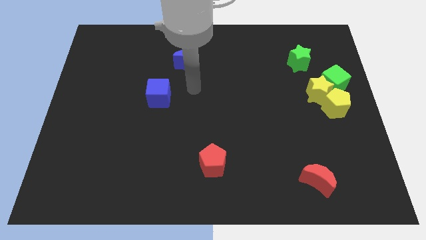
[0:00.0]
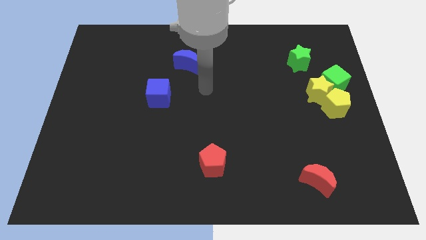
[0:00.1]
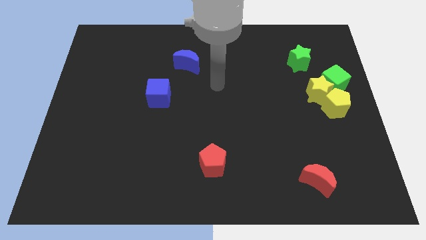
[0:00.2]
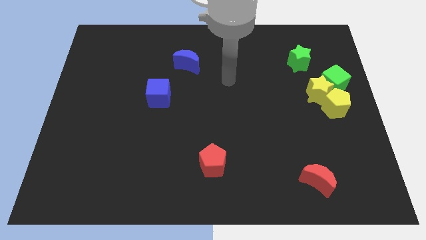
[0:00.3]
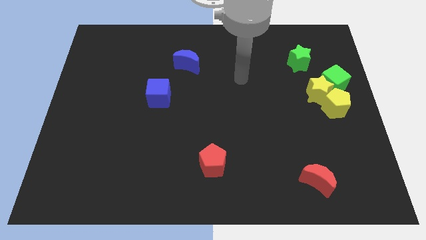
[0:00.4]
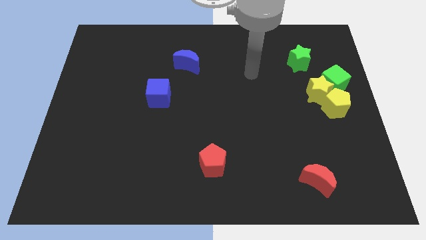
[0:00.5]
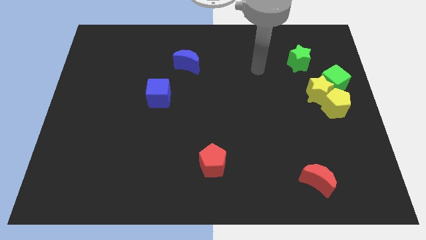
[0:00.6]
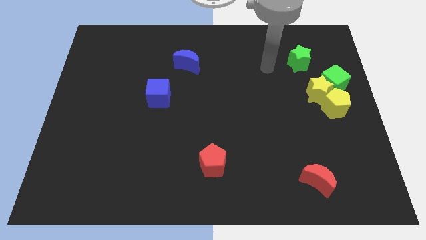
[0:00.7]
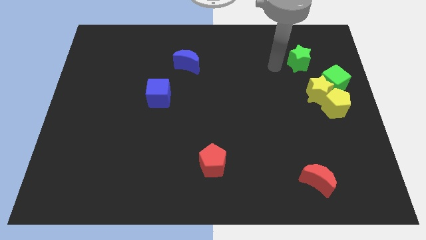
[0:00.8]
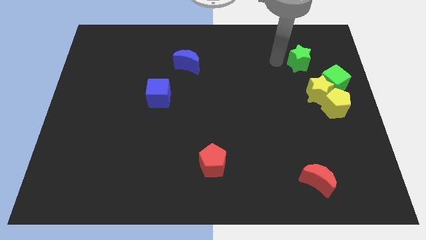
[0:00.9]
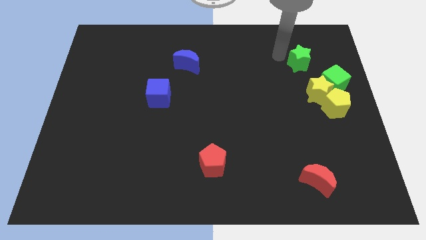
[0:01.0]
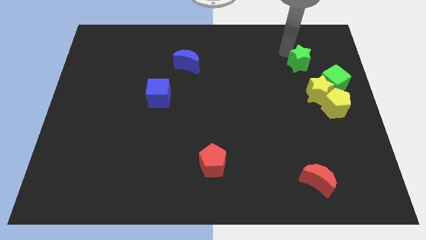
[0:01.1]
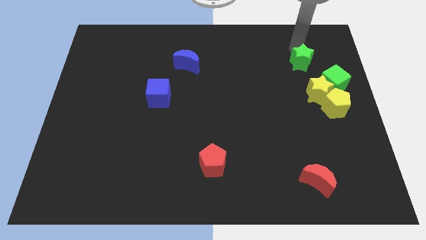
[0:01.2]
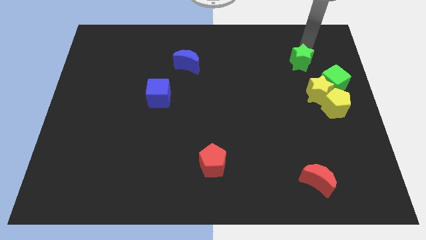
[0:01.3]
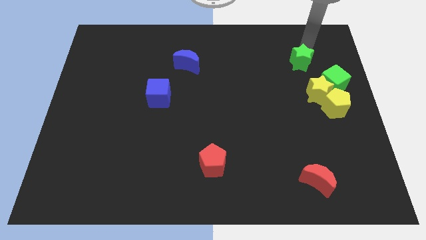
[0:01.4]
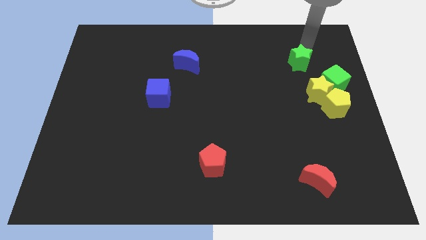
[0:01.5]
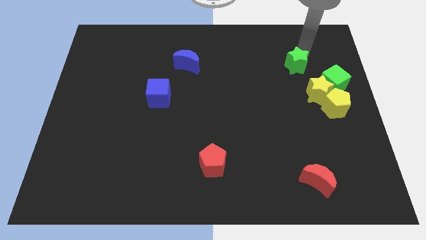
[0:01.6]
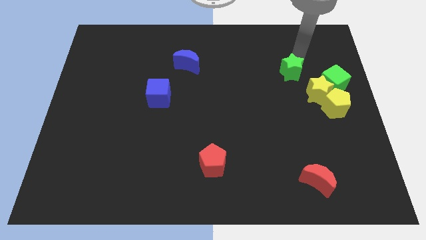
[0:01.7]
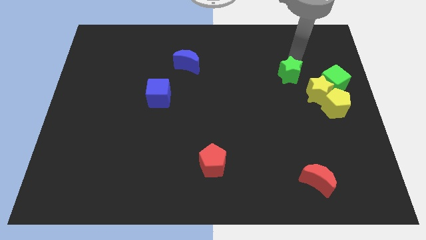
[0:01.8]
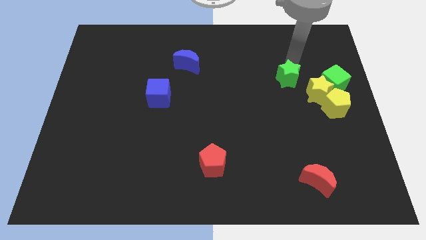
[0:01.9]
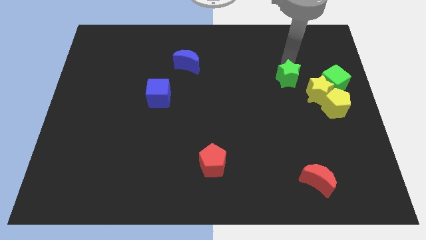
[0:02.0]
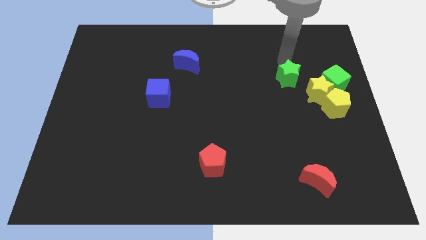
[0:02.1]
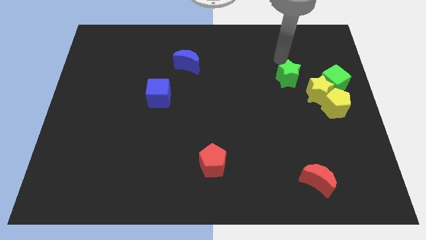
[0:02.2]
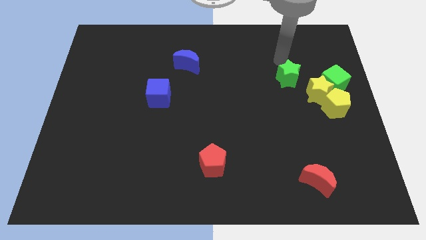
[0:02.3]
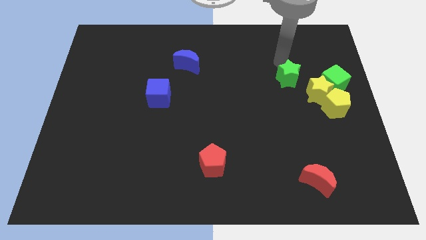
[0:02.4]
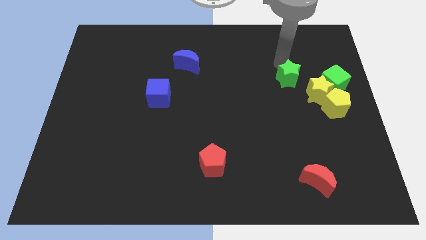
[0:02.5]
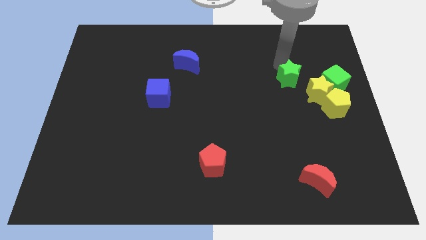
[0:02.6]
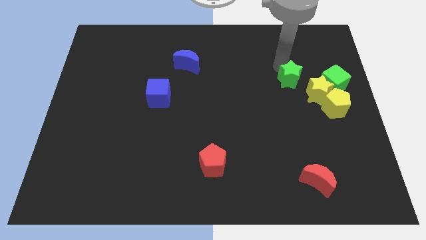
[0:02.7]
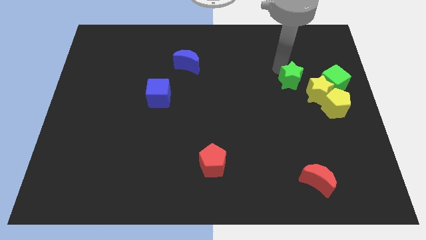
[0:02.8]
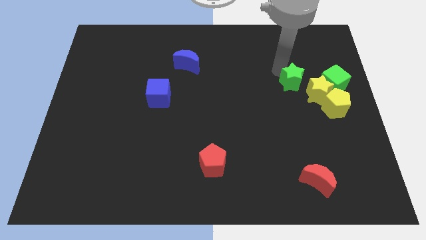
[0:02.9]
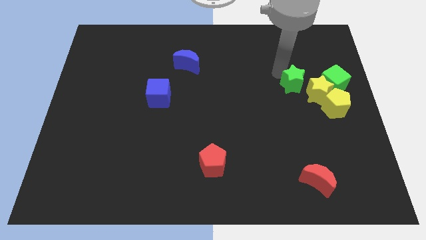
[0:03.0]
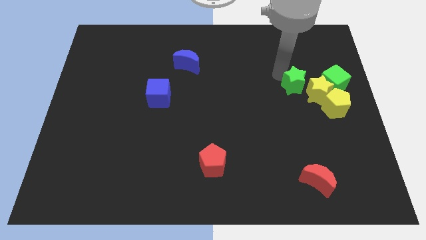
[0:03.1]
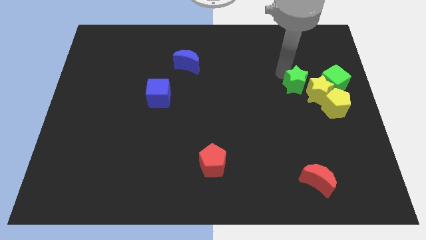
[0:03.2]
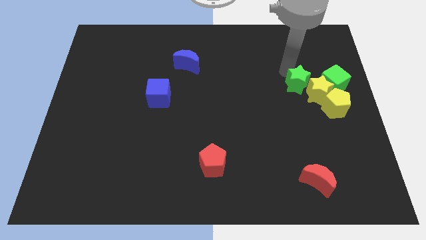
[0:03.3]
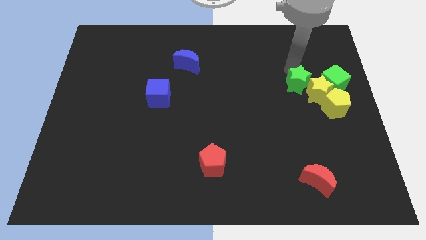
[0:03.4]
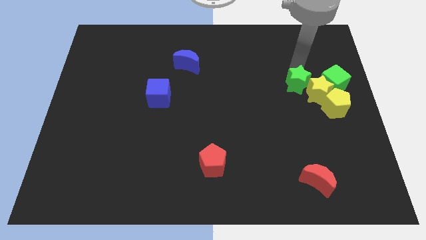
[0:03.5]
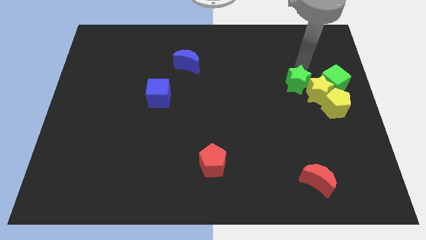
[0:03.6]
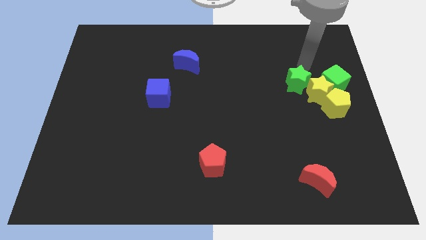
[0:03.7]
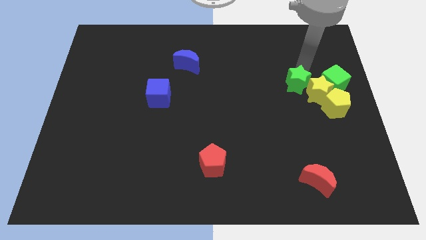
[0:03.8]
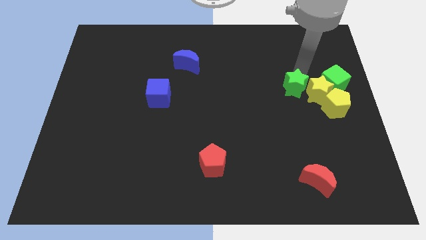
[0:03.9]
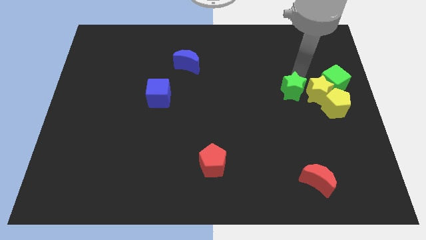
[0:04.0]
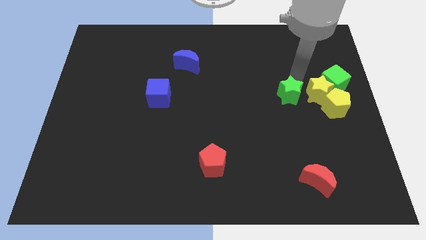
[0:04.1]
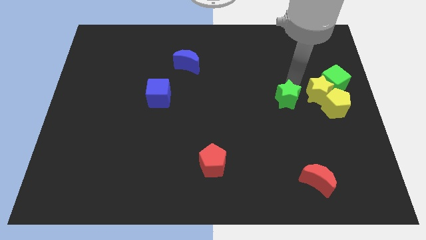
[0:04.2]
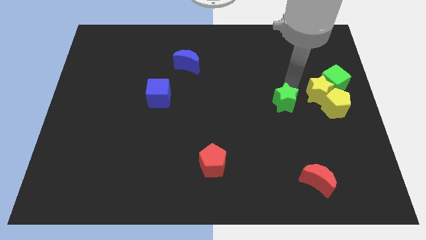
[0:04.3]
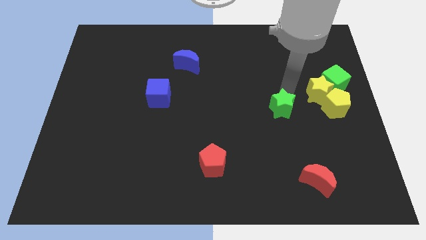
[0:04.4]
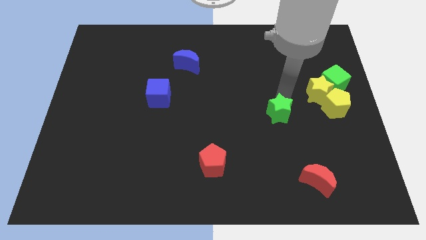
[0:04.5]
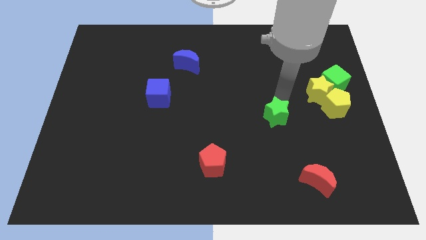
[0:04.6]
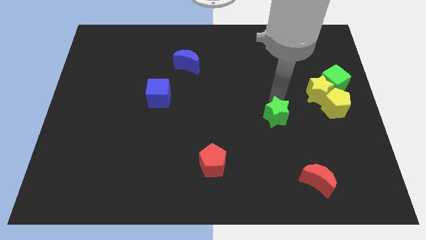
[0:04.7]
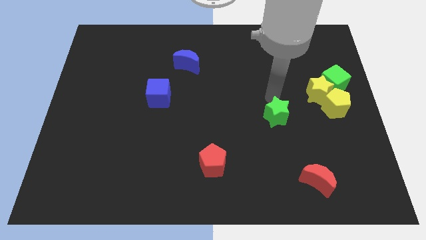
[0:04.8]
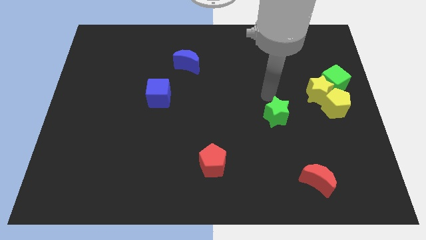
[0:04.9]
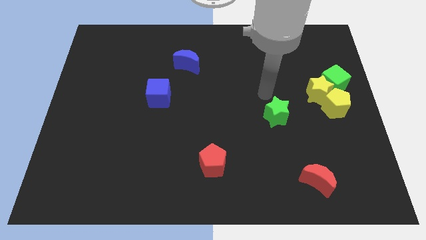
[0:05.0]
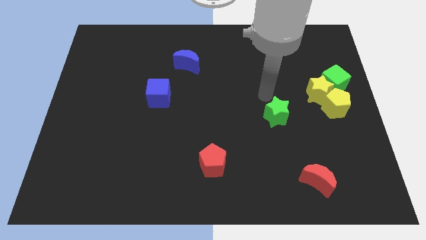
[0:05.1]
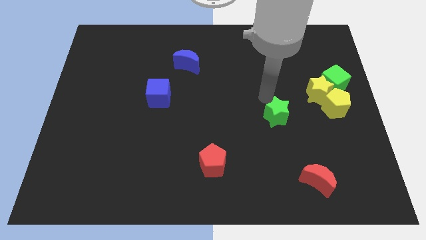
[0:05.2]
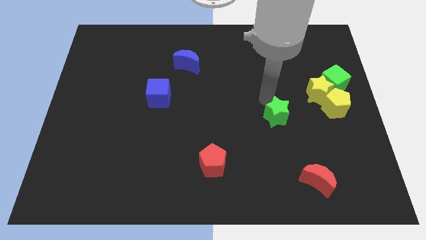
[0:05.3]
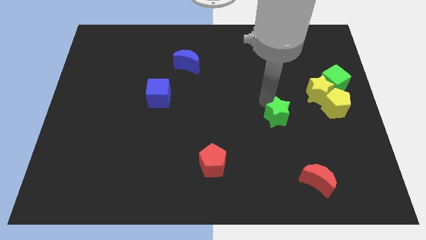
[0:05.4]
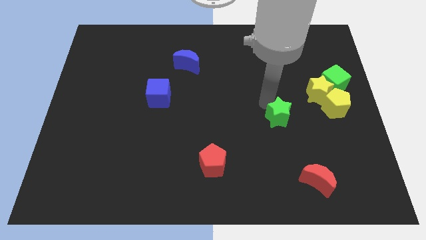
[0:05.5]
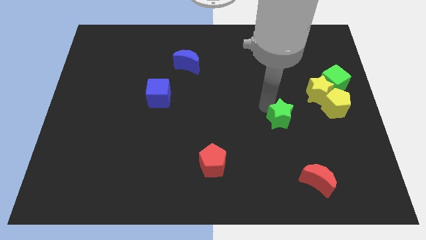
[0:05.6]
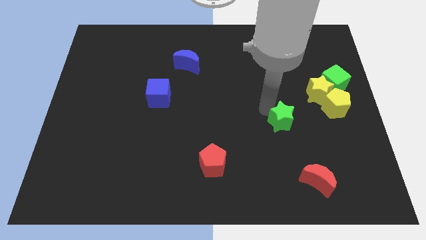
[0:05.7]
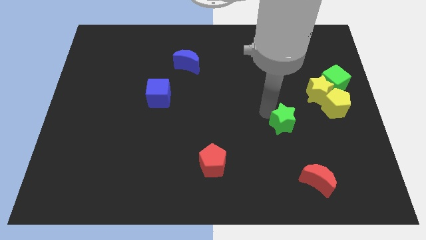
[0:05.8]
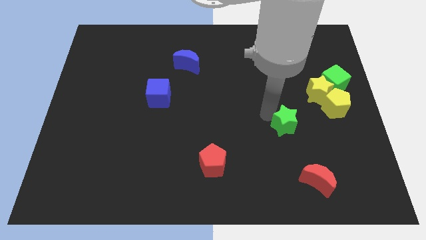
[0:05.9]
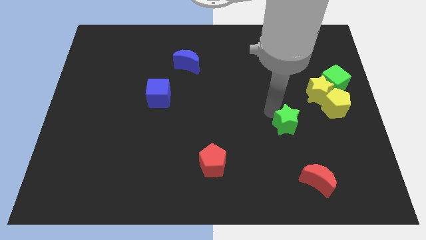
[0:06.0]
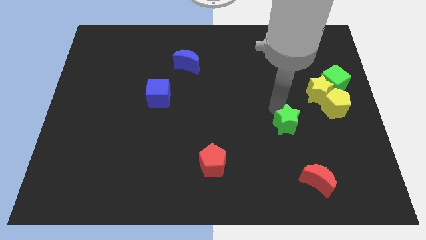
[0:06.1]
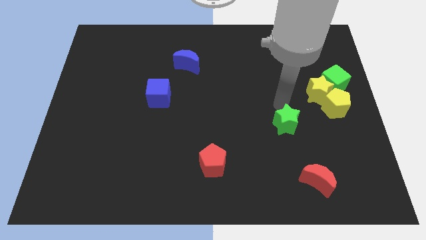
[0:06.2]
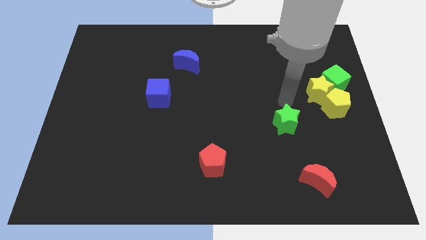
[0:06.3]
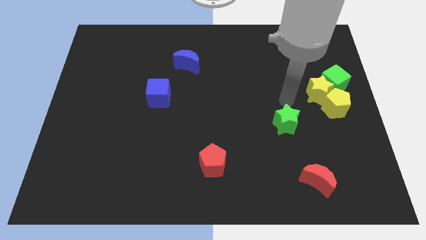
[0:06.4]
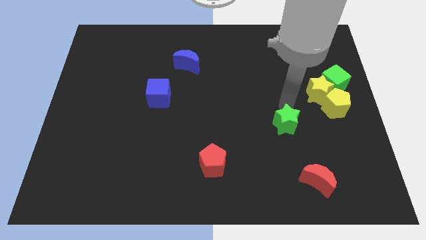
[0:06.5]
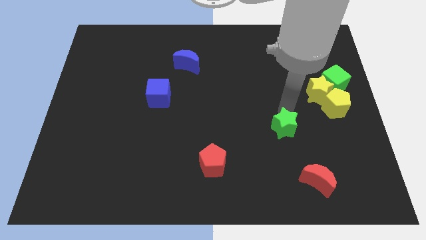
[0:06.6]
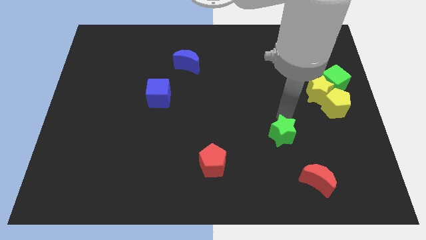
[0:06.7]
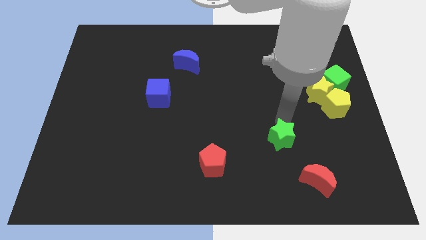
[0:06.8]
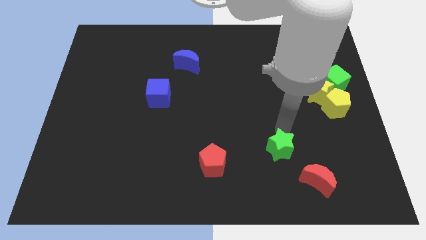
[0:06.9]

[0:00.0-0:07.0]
slide the green star to the right of the red pentagon

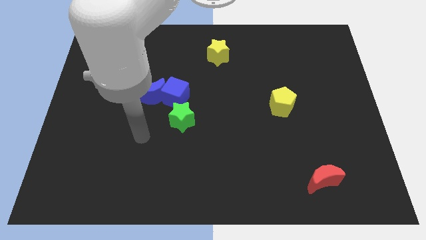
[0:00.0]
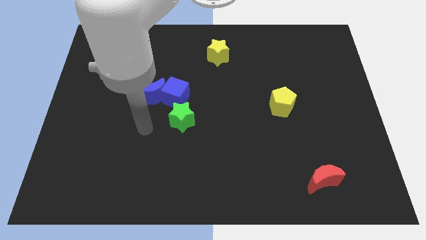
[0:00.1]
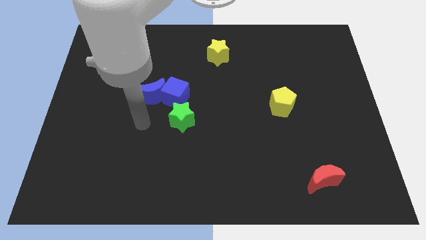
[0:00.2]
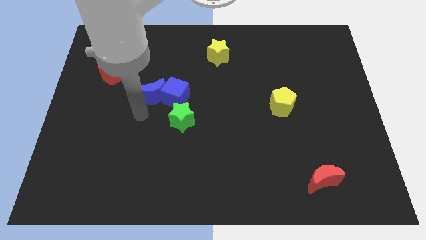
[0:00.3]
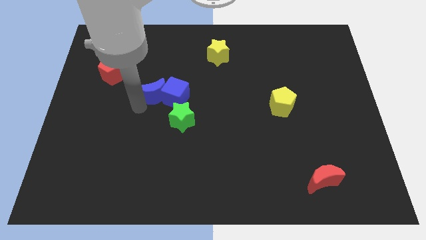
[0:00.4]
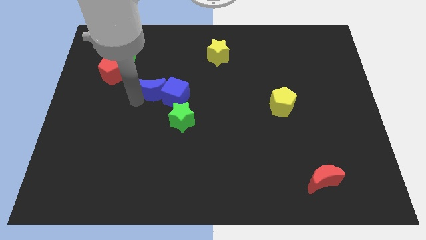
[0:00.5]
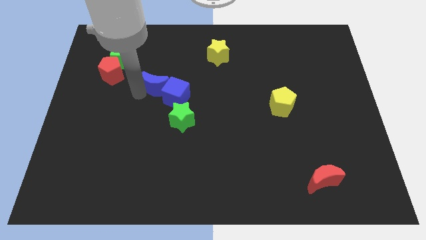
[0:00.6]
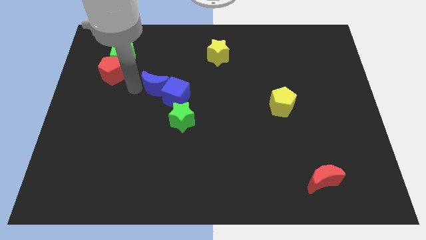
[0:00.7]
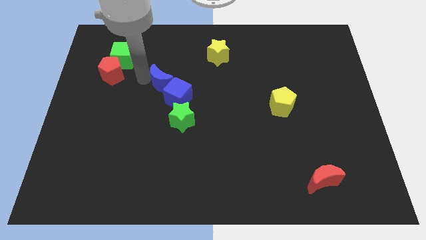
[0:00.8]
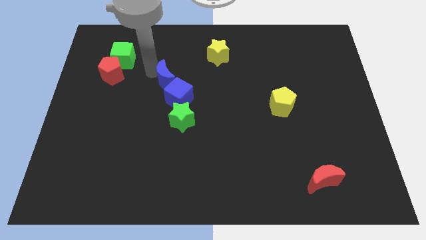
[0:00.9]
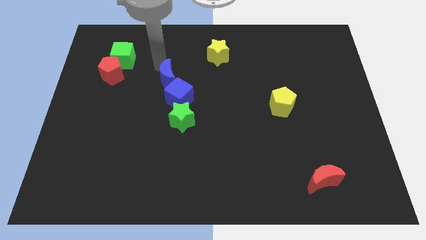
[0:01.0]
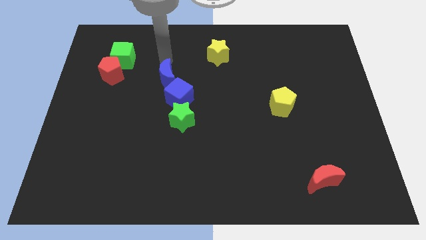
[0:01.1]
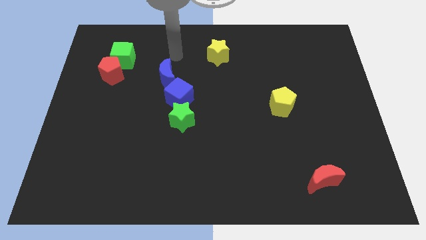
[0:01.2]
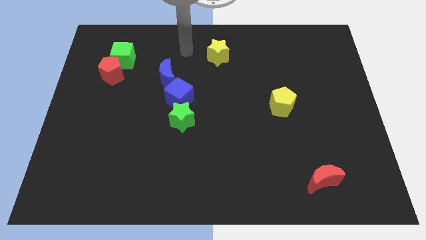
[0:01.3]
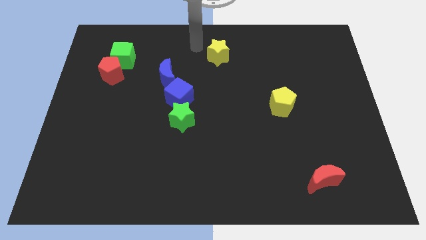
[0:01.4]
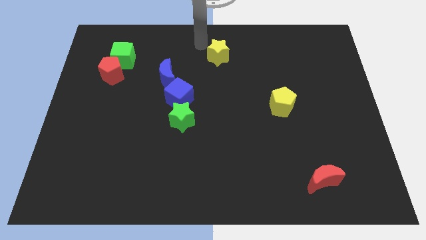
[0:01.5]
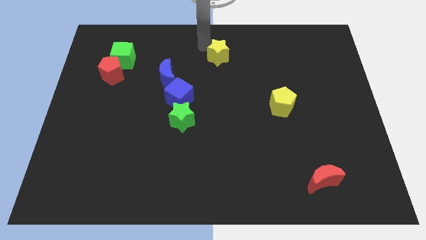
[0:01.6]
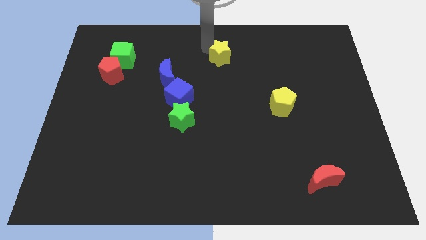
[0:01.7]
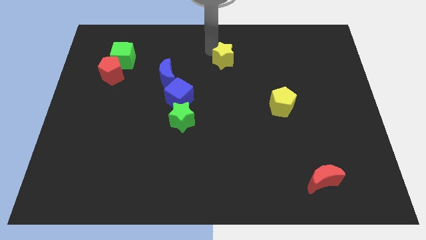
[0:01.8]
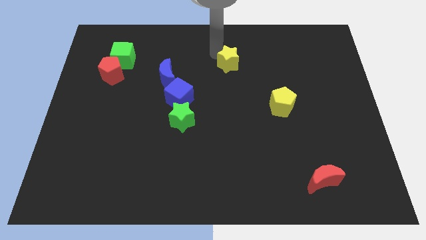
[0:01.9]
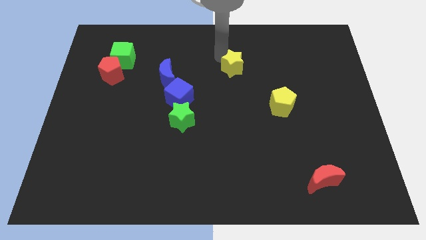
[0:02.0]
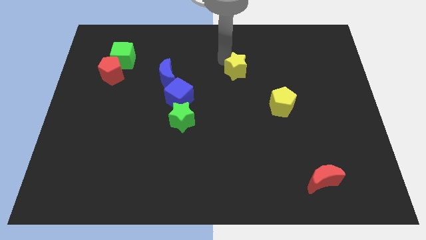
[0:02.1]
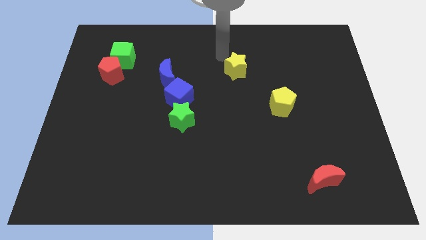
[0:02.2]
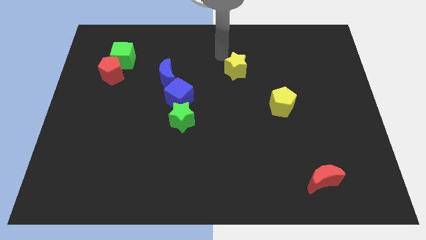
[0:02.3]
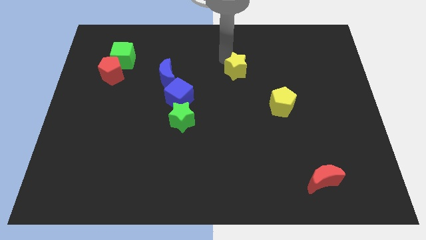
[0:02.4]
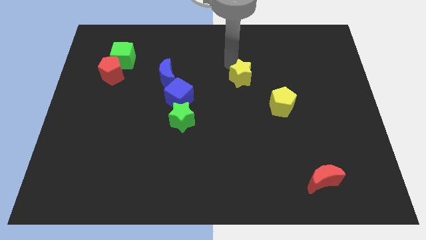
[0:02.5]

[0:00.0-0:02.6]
put the yellow star diagonally up and to the left of the yellow pentagon
